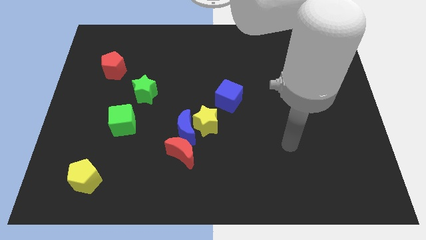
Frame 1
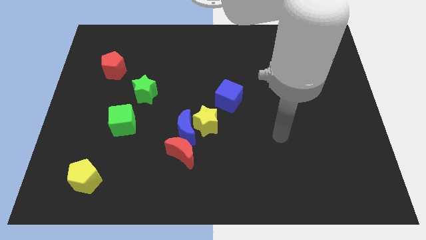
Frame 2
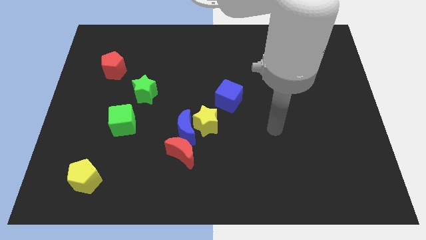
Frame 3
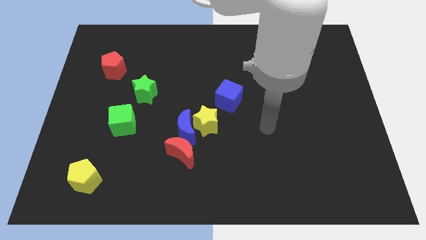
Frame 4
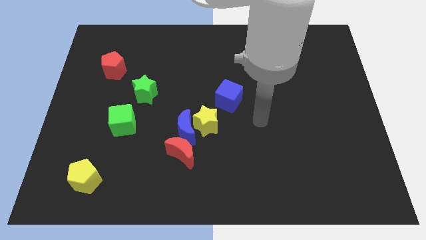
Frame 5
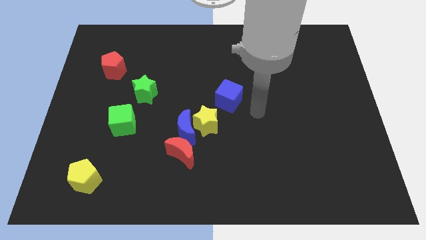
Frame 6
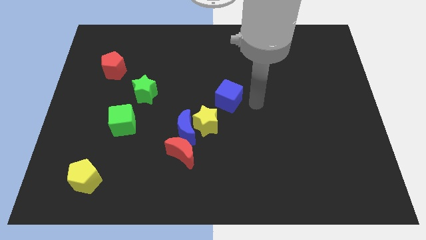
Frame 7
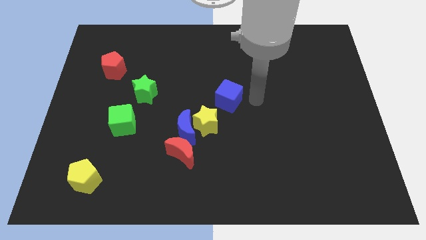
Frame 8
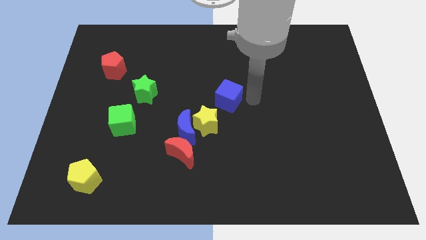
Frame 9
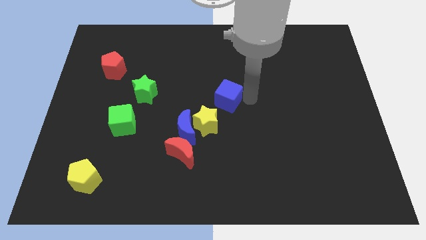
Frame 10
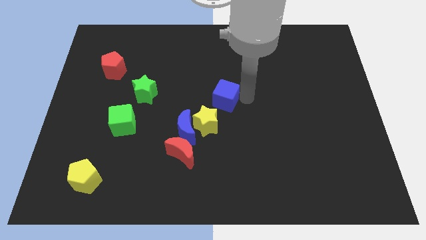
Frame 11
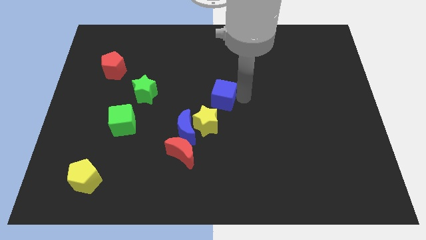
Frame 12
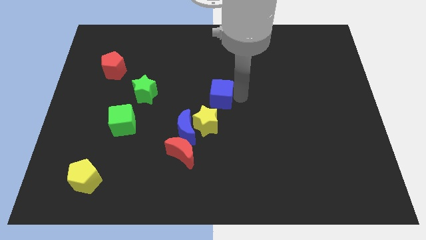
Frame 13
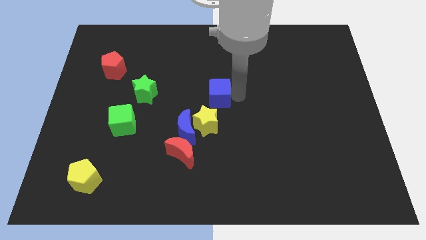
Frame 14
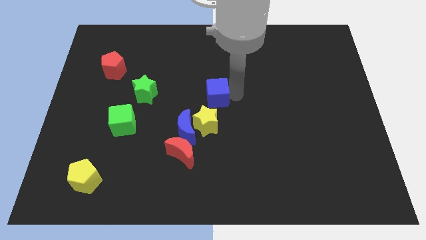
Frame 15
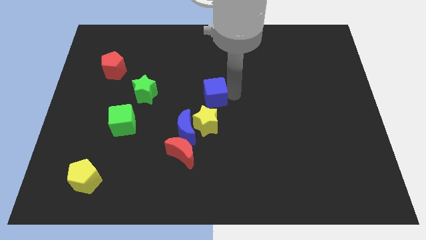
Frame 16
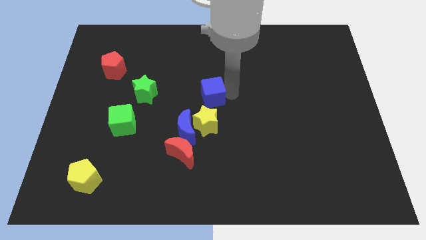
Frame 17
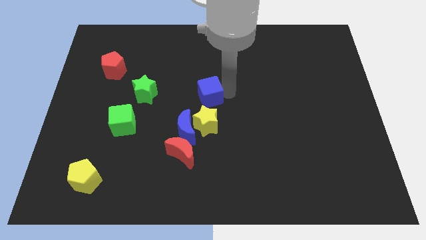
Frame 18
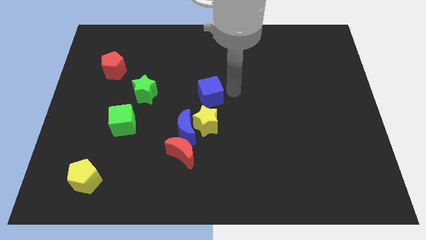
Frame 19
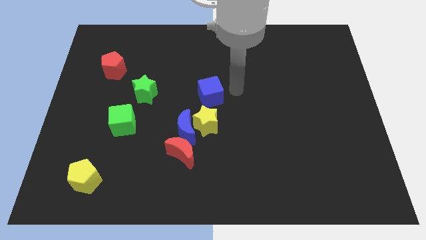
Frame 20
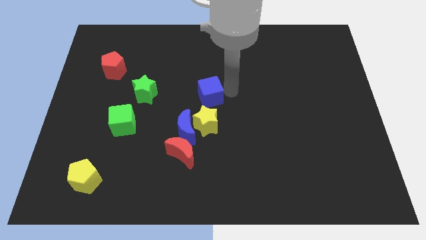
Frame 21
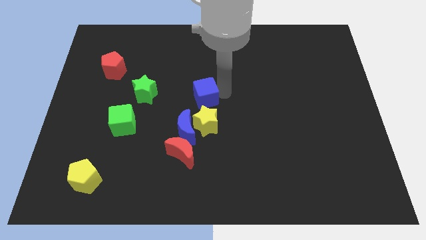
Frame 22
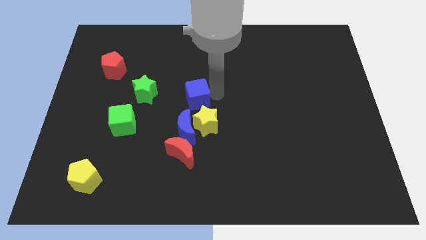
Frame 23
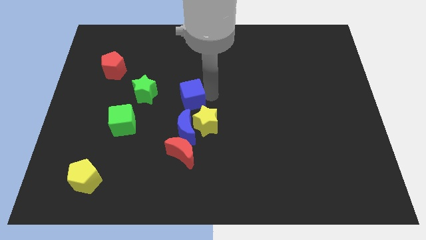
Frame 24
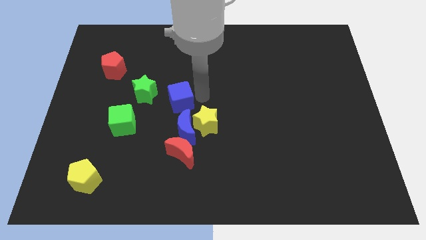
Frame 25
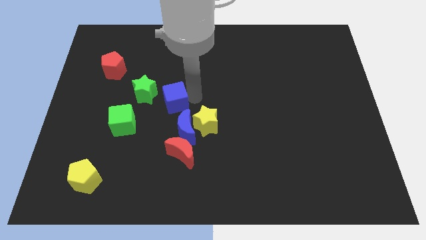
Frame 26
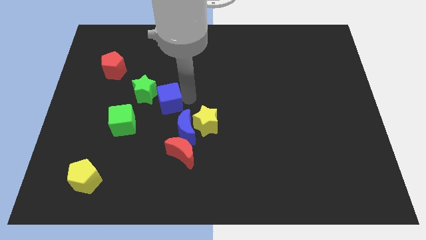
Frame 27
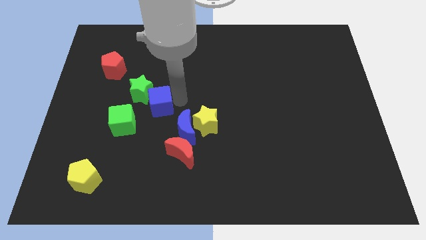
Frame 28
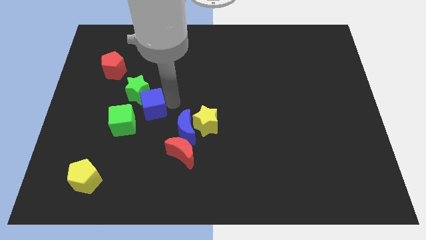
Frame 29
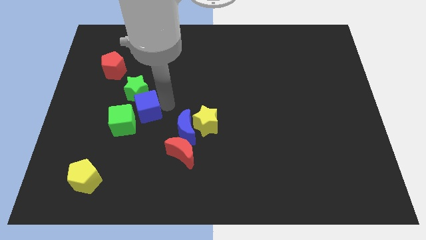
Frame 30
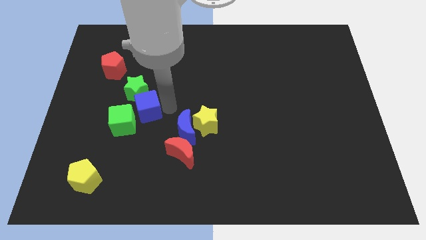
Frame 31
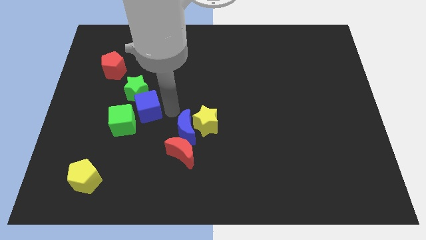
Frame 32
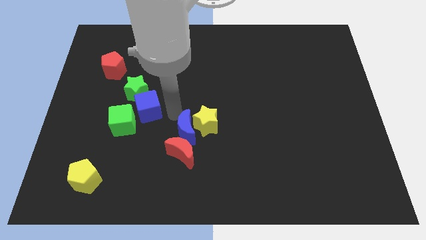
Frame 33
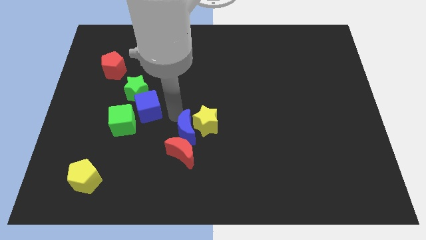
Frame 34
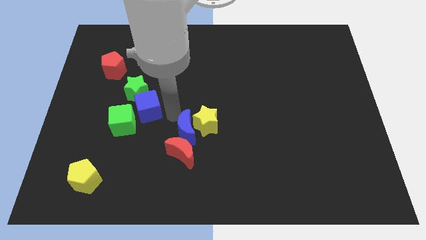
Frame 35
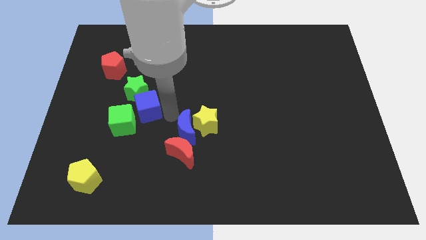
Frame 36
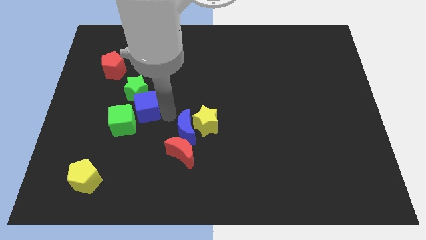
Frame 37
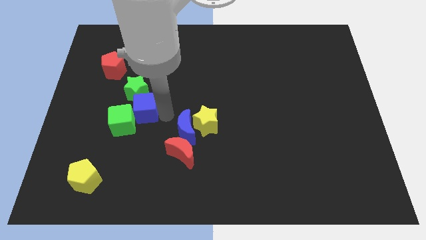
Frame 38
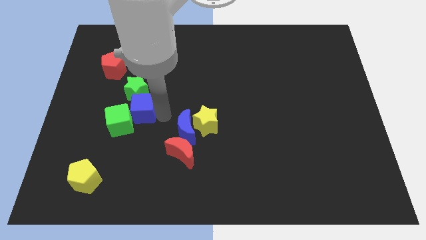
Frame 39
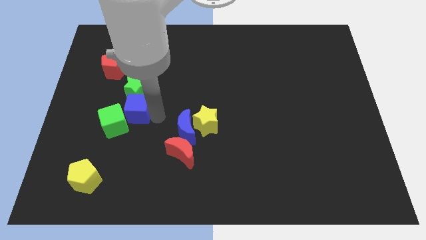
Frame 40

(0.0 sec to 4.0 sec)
push the blue cube to the left

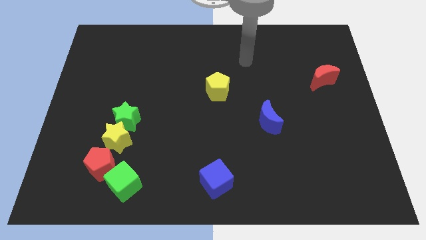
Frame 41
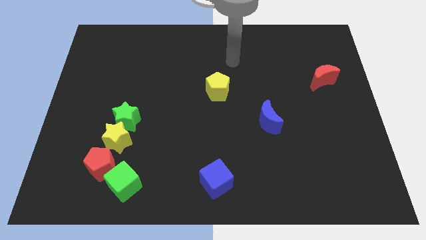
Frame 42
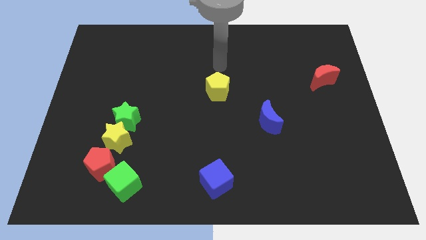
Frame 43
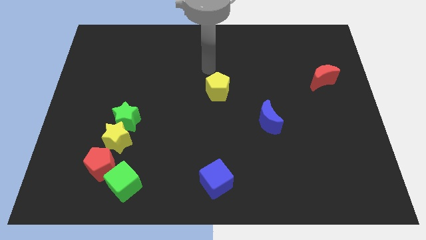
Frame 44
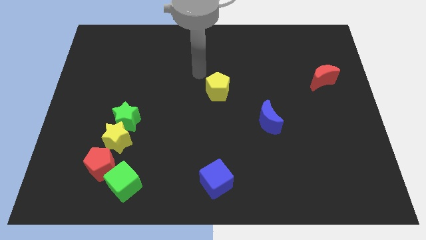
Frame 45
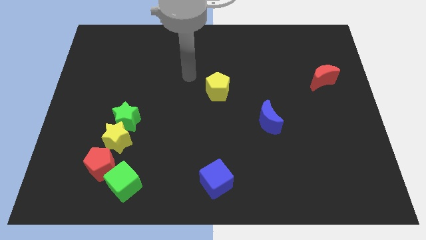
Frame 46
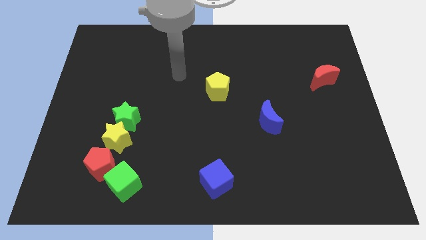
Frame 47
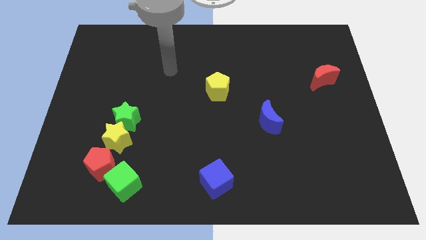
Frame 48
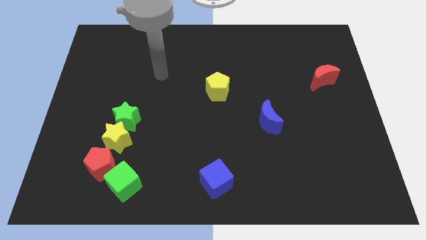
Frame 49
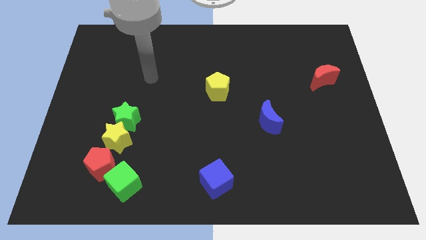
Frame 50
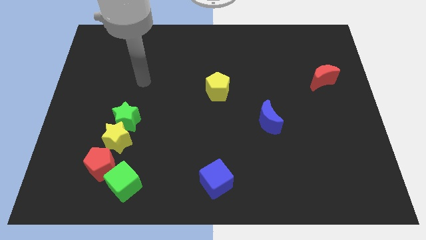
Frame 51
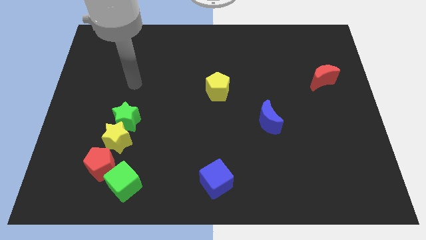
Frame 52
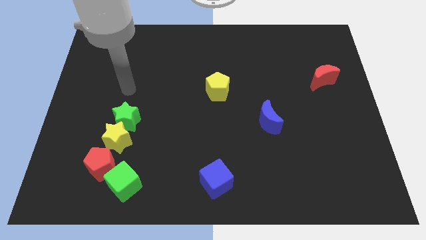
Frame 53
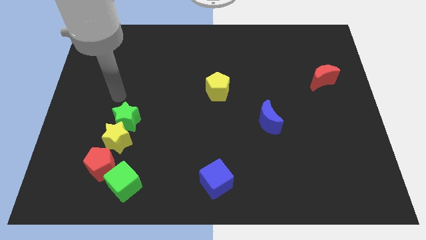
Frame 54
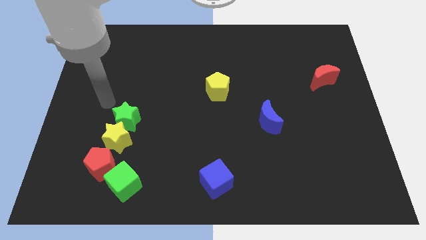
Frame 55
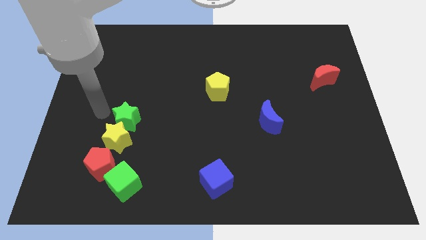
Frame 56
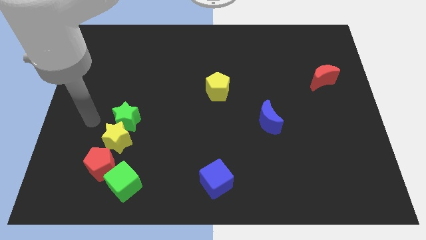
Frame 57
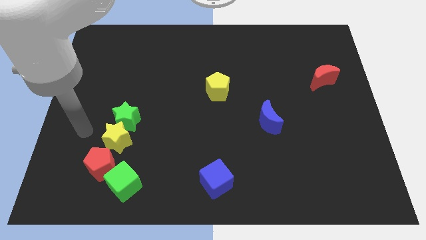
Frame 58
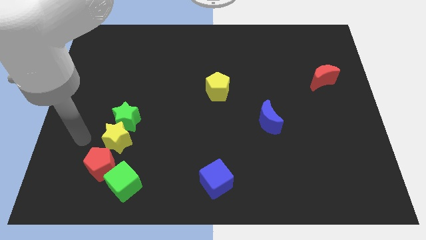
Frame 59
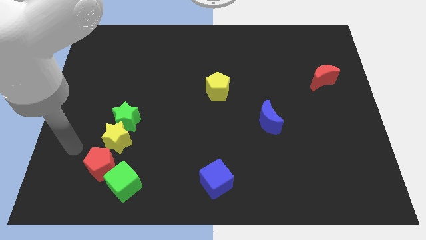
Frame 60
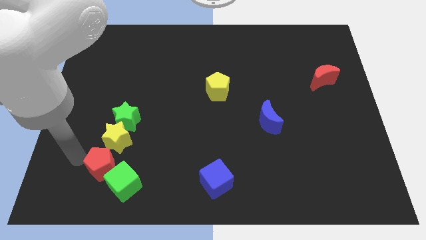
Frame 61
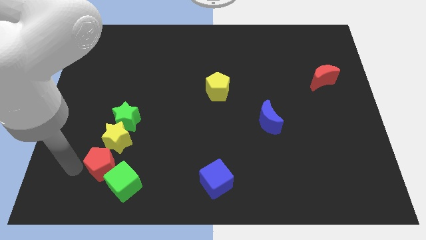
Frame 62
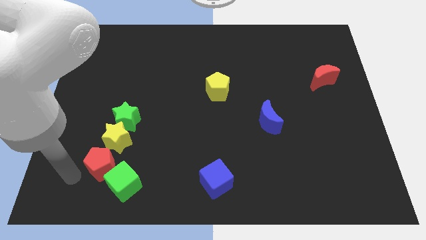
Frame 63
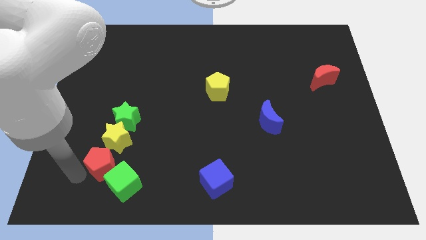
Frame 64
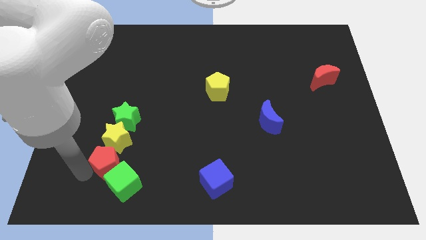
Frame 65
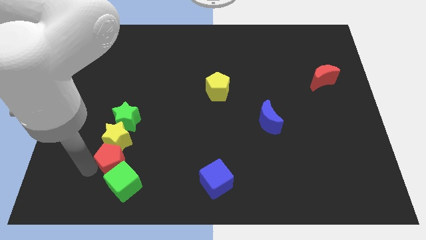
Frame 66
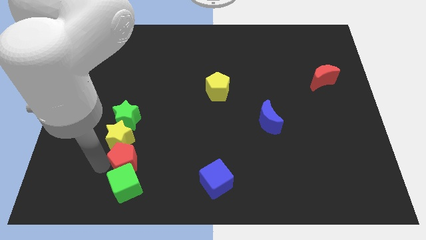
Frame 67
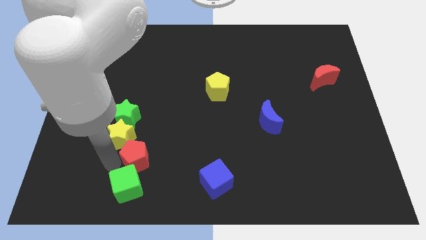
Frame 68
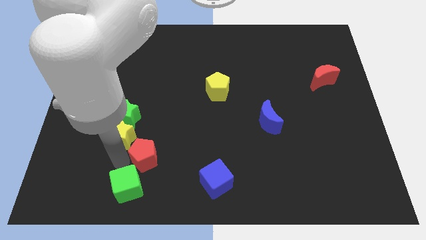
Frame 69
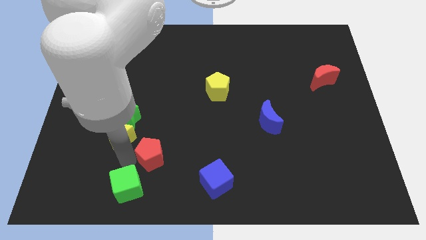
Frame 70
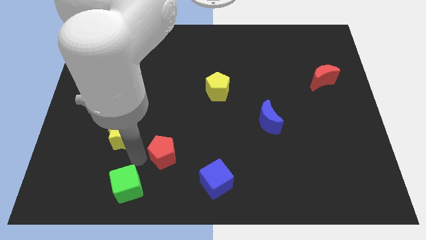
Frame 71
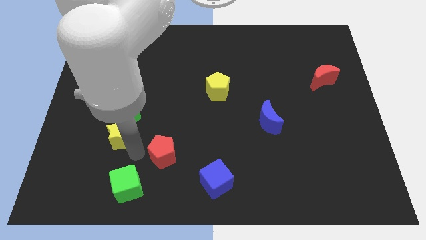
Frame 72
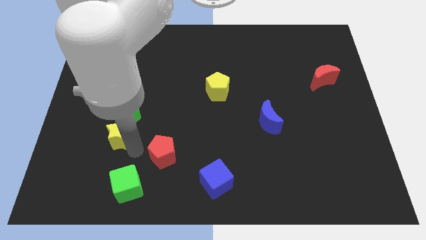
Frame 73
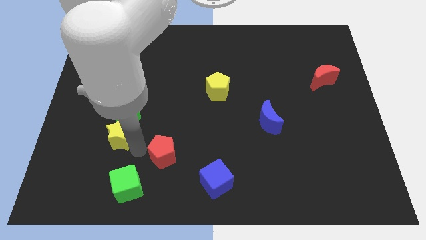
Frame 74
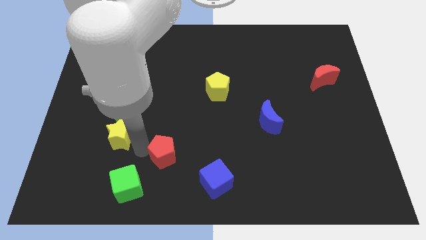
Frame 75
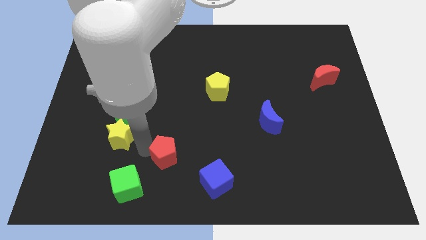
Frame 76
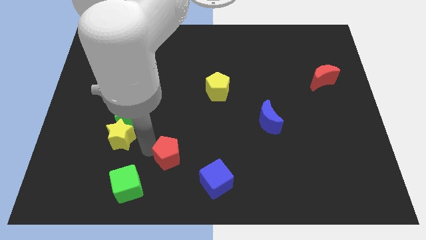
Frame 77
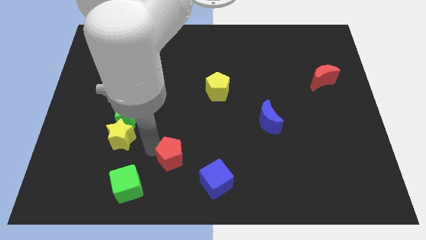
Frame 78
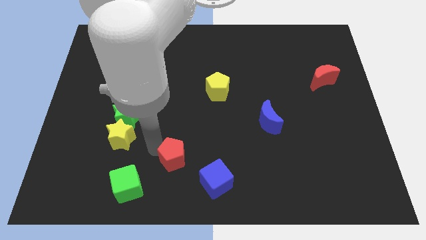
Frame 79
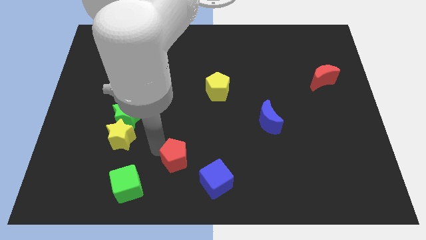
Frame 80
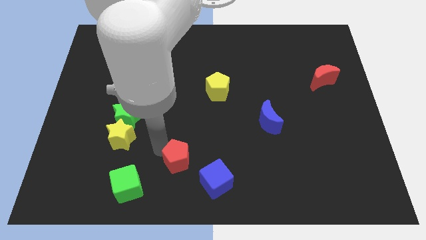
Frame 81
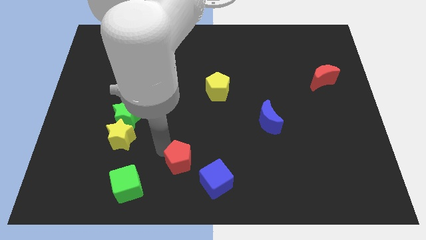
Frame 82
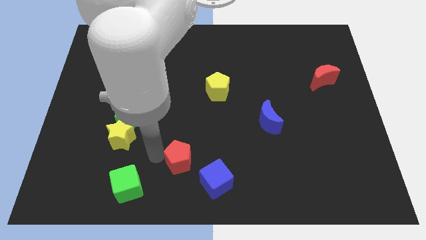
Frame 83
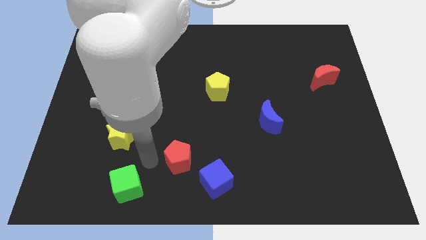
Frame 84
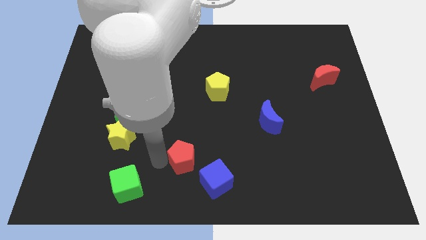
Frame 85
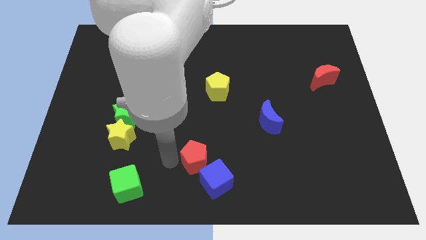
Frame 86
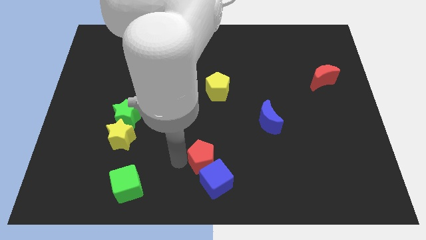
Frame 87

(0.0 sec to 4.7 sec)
move the red pentagon right
